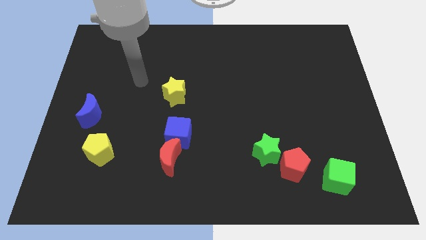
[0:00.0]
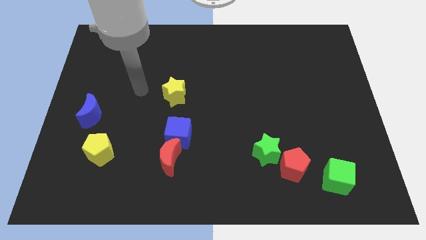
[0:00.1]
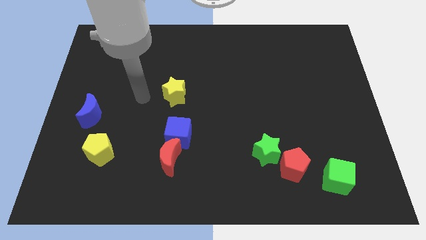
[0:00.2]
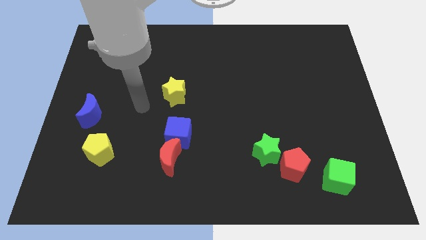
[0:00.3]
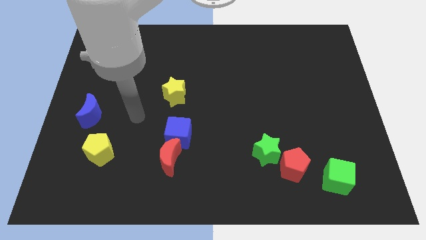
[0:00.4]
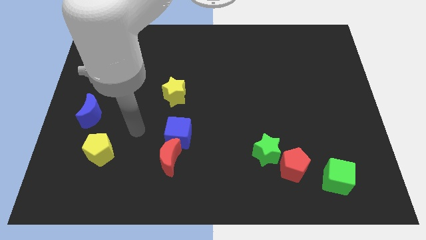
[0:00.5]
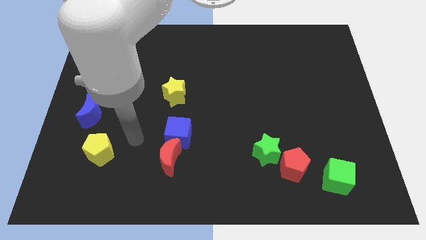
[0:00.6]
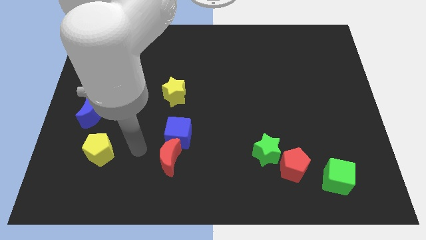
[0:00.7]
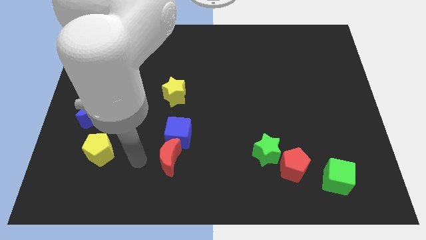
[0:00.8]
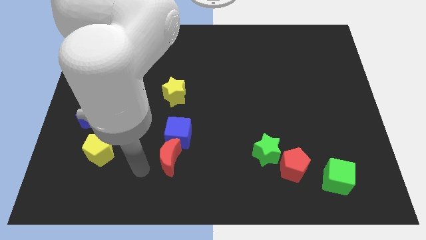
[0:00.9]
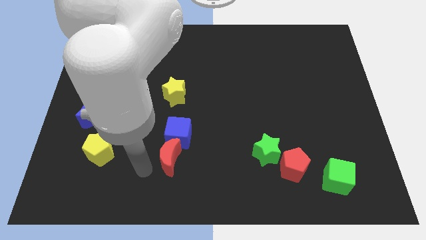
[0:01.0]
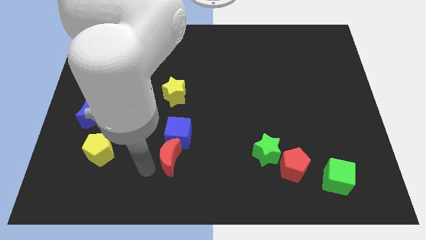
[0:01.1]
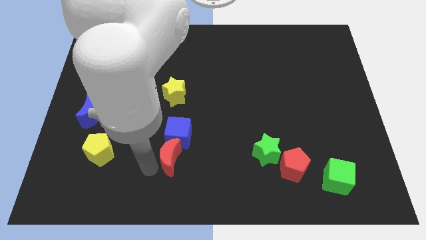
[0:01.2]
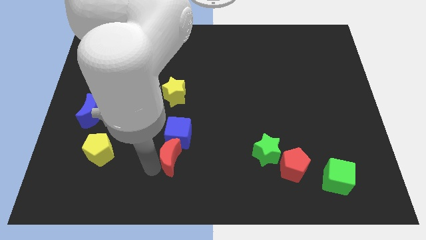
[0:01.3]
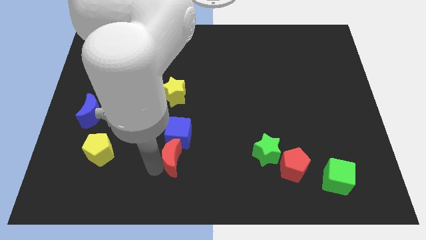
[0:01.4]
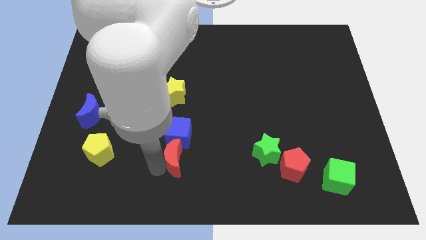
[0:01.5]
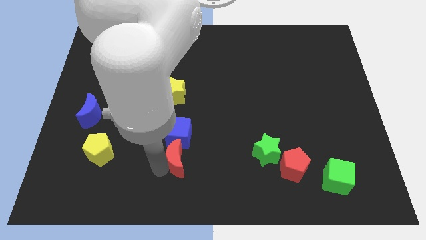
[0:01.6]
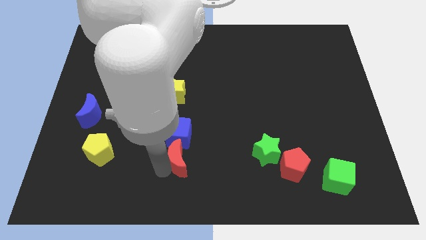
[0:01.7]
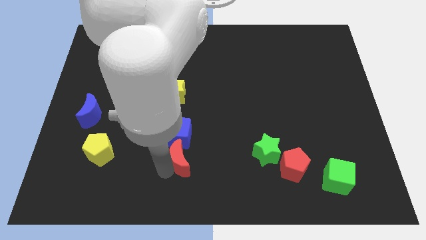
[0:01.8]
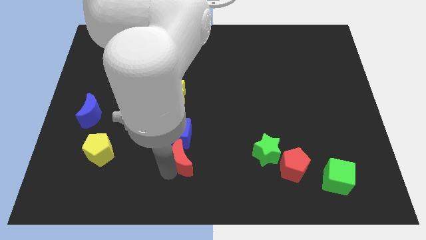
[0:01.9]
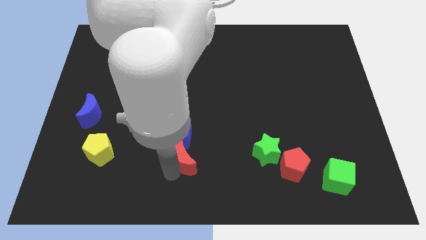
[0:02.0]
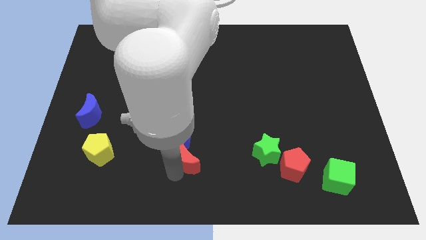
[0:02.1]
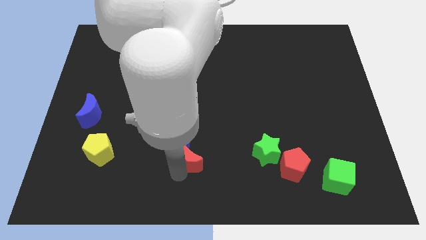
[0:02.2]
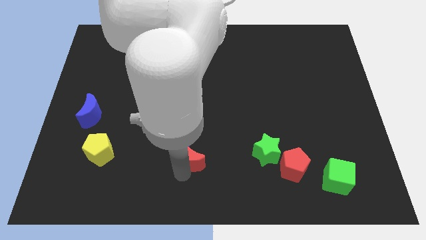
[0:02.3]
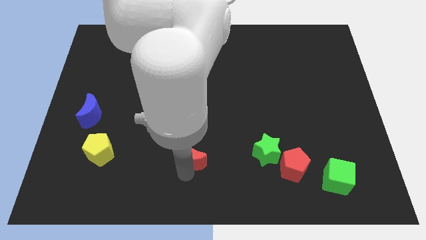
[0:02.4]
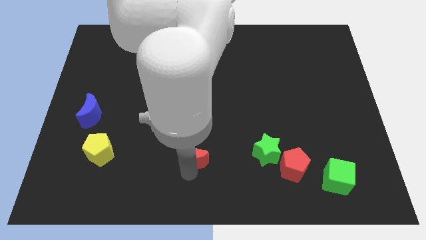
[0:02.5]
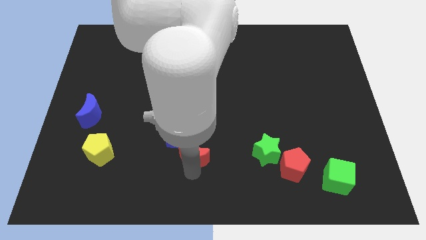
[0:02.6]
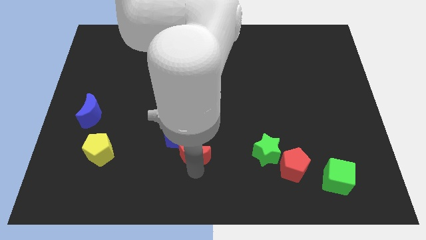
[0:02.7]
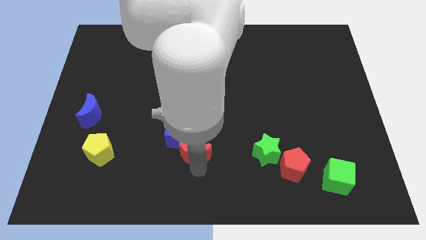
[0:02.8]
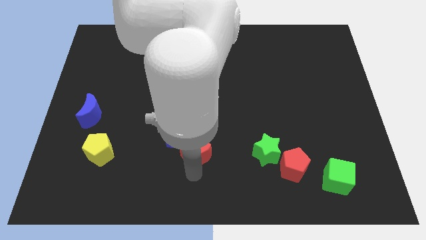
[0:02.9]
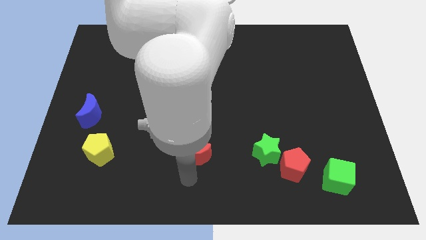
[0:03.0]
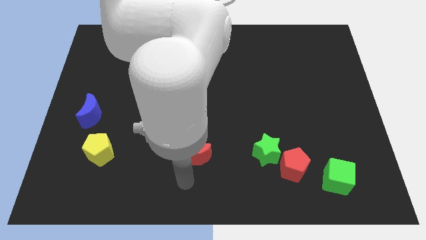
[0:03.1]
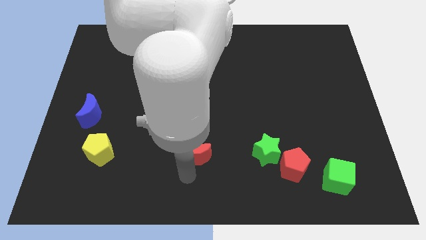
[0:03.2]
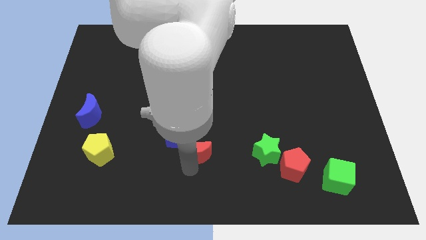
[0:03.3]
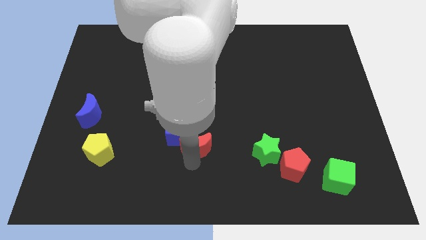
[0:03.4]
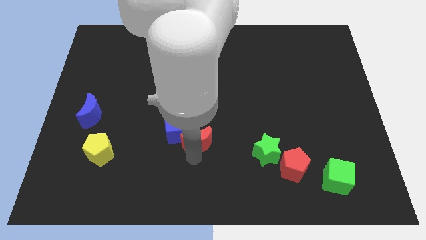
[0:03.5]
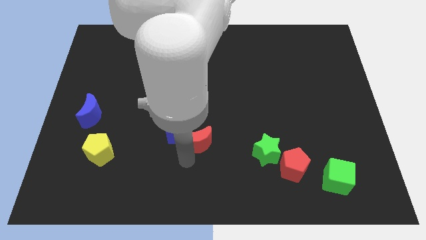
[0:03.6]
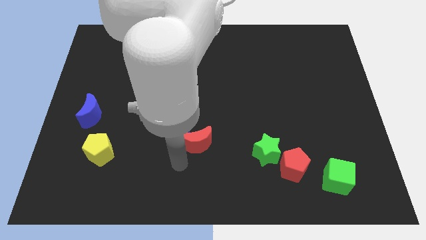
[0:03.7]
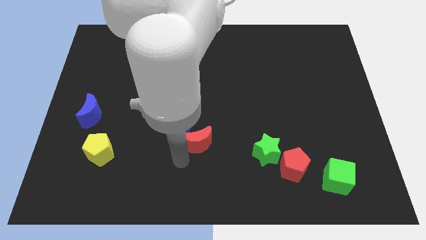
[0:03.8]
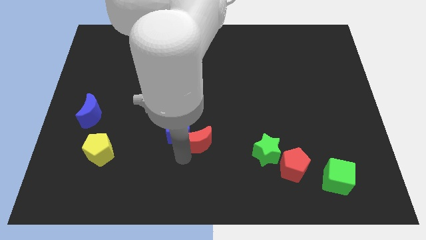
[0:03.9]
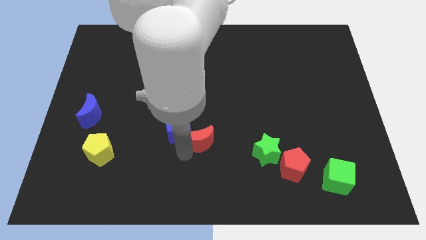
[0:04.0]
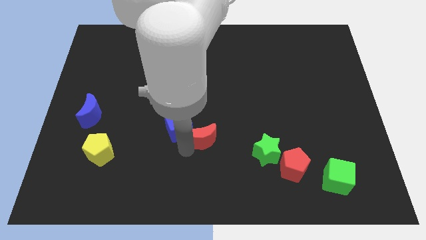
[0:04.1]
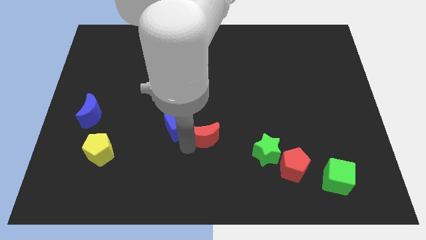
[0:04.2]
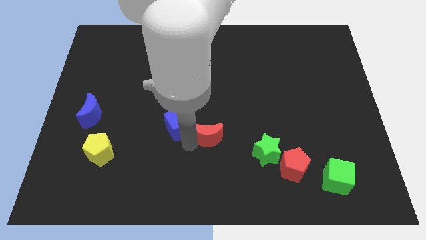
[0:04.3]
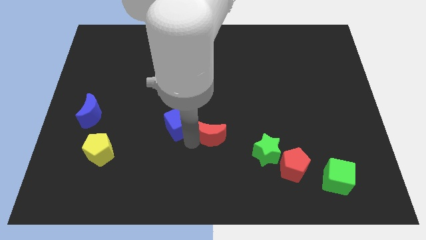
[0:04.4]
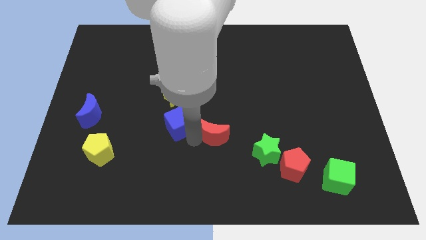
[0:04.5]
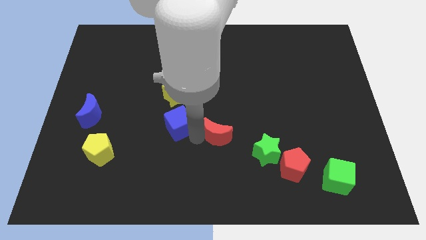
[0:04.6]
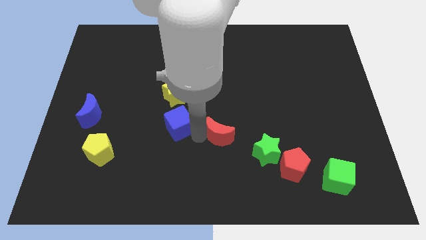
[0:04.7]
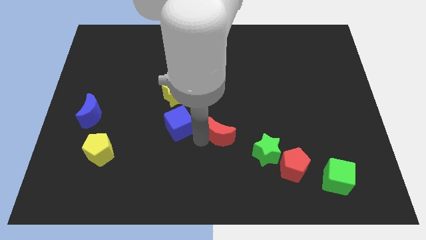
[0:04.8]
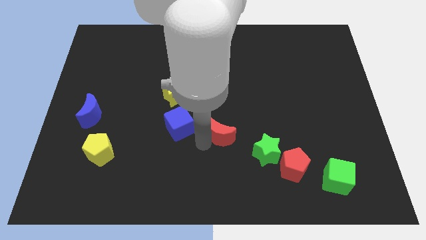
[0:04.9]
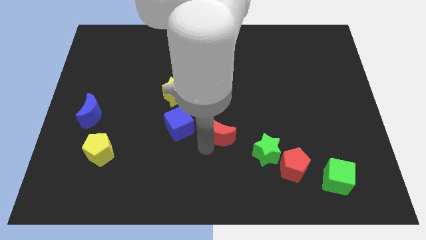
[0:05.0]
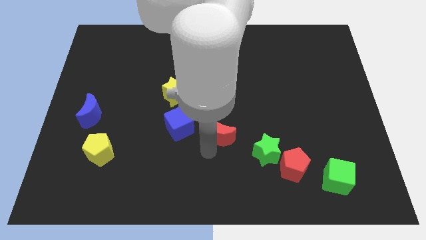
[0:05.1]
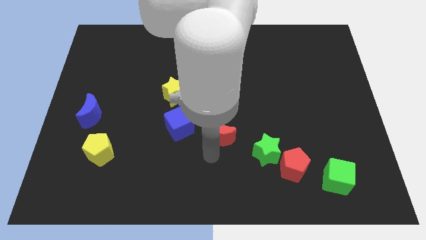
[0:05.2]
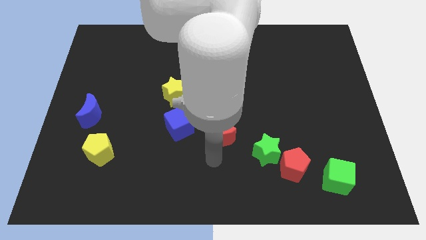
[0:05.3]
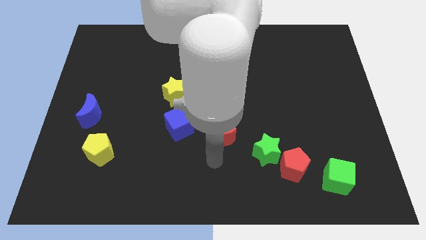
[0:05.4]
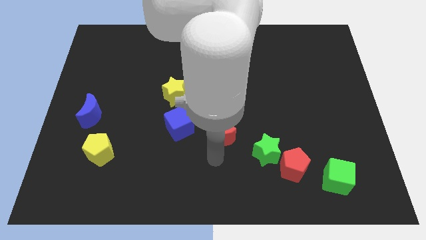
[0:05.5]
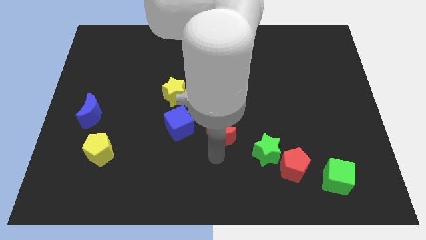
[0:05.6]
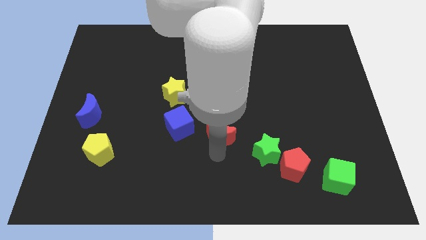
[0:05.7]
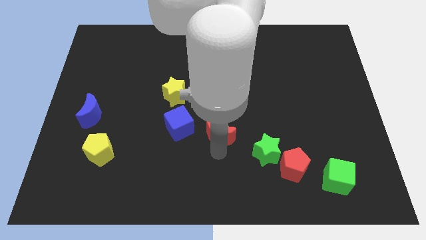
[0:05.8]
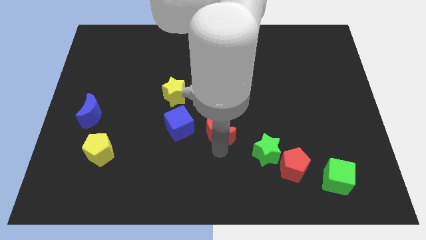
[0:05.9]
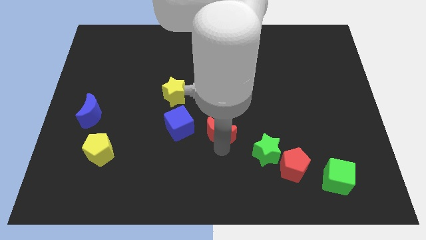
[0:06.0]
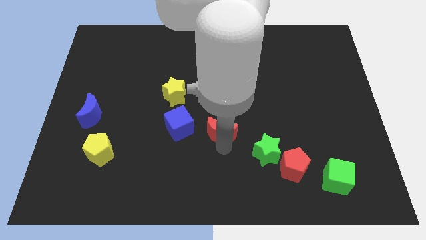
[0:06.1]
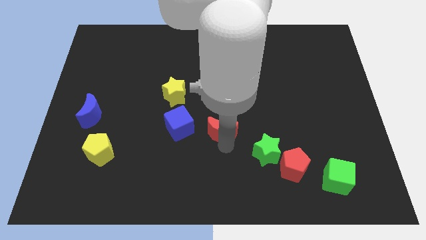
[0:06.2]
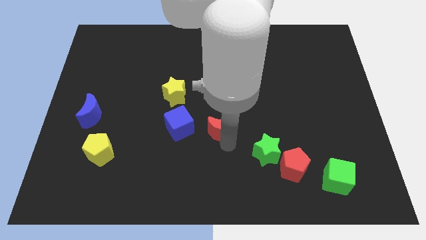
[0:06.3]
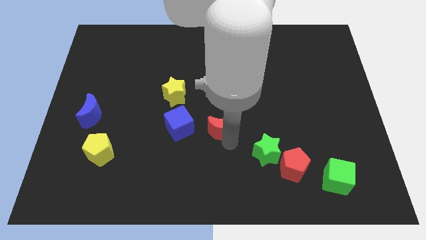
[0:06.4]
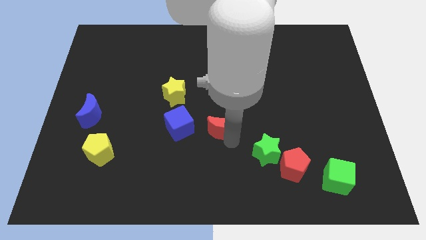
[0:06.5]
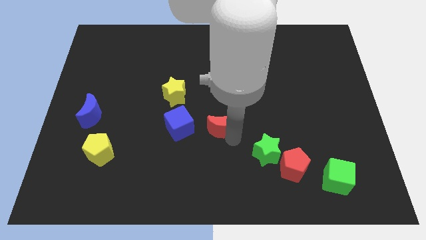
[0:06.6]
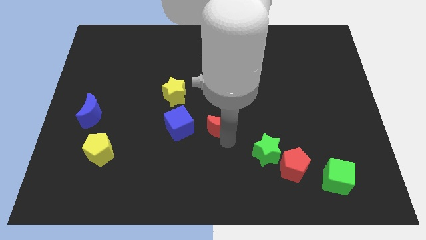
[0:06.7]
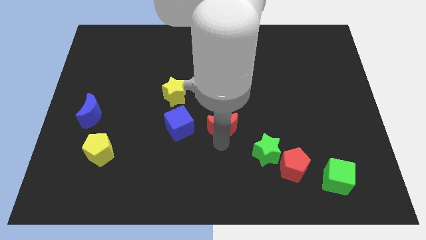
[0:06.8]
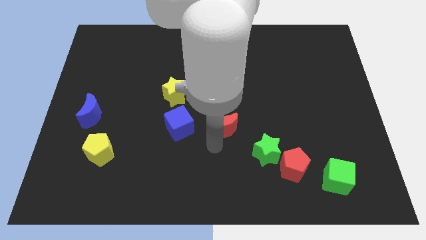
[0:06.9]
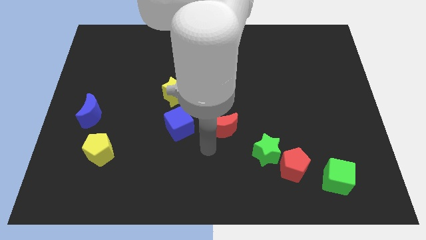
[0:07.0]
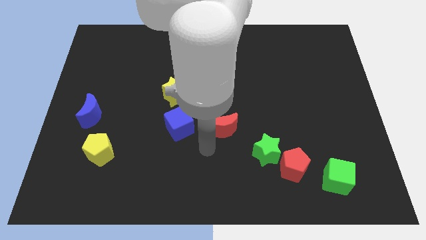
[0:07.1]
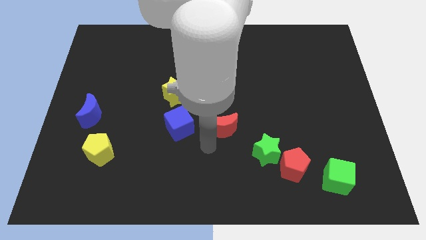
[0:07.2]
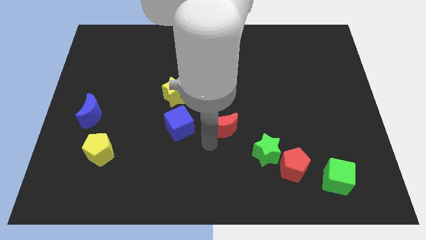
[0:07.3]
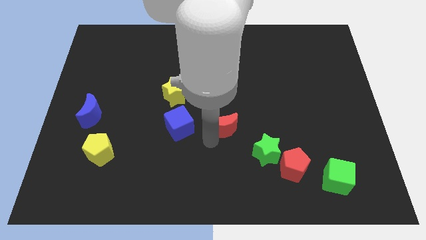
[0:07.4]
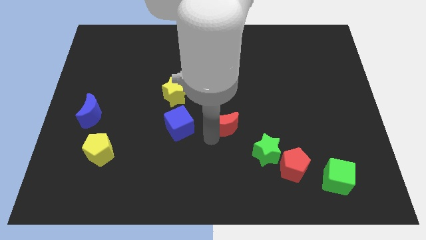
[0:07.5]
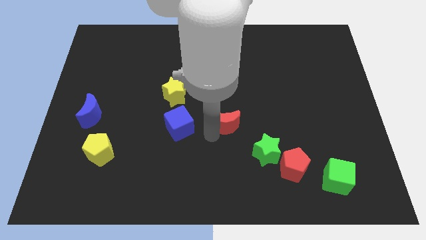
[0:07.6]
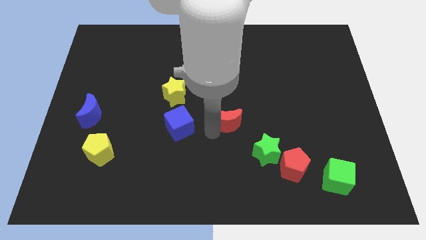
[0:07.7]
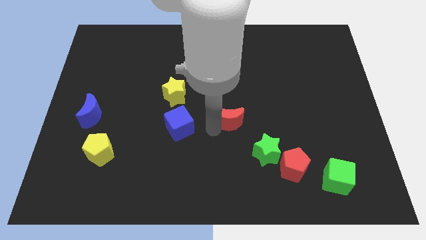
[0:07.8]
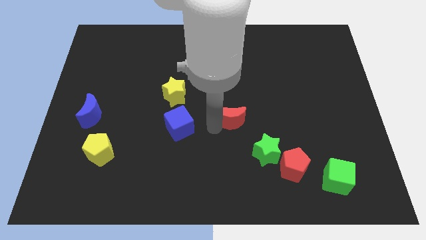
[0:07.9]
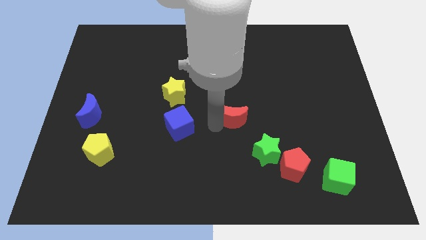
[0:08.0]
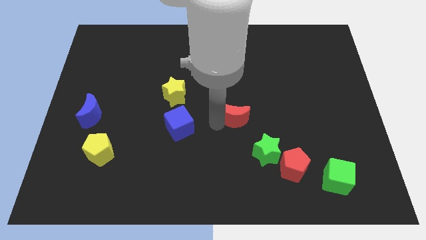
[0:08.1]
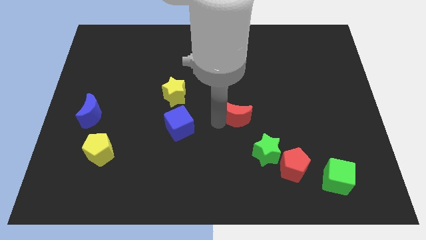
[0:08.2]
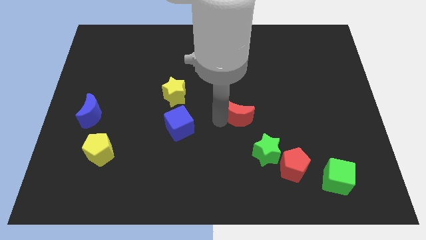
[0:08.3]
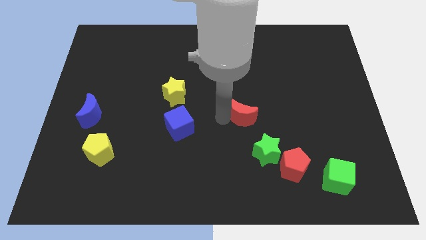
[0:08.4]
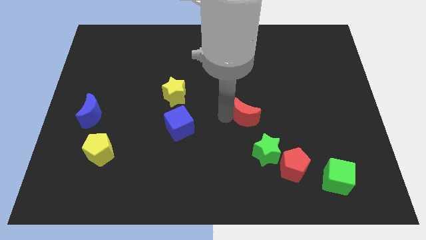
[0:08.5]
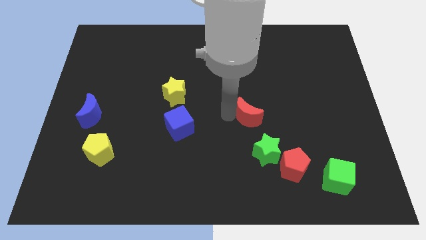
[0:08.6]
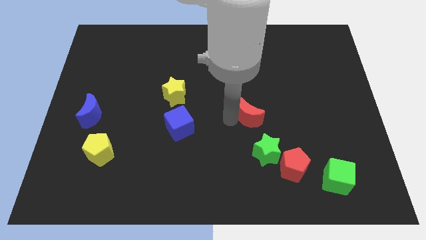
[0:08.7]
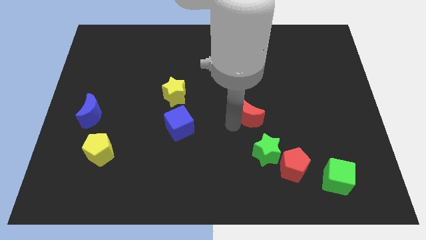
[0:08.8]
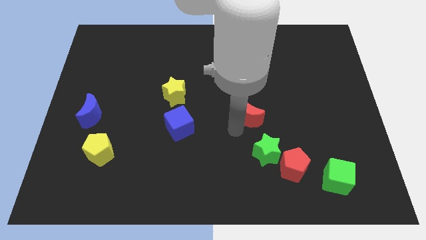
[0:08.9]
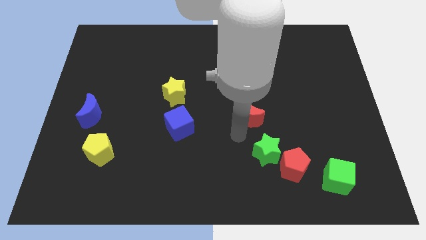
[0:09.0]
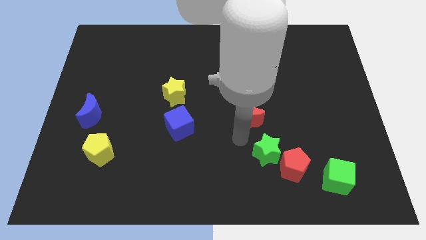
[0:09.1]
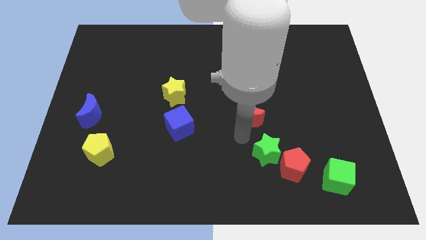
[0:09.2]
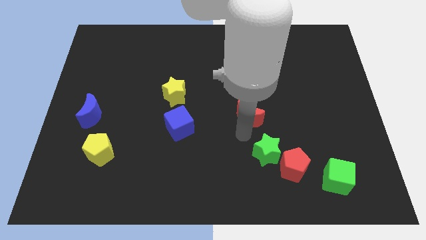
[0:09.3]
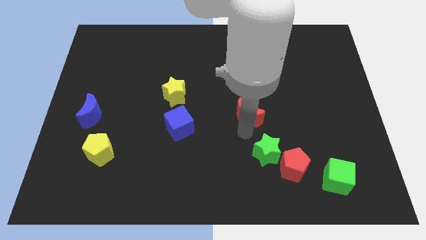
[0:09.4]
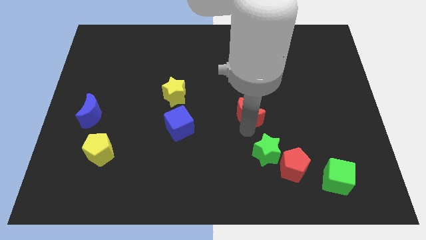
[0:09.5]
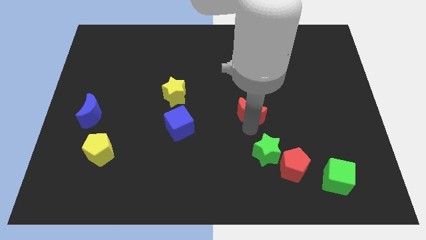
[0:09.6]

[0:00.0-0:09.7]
move the red moon up and to the right
